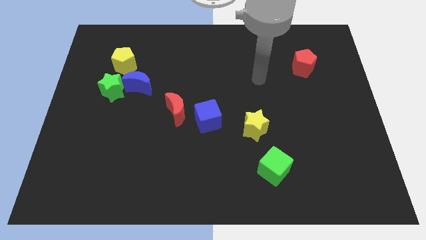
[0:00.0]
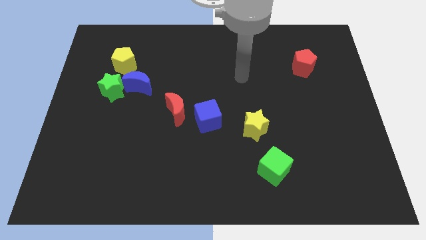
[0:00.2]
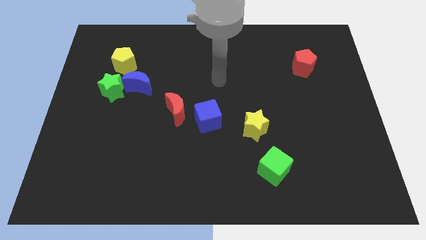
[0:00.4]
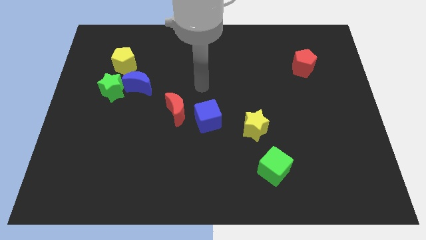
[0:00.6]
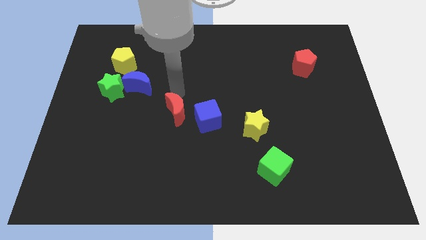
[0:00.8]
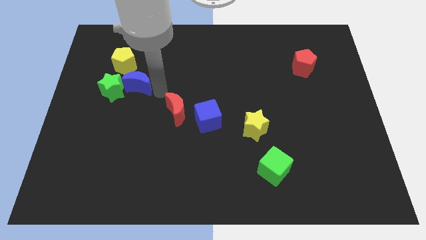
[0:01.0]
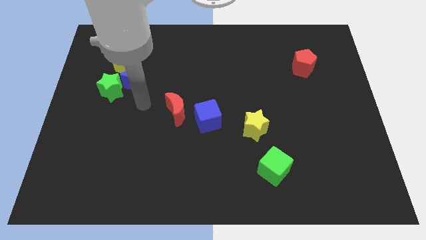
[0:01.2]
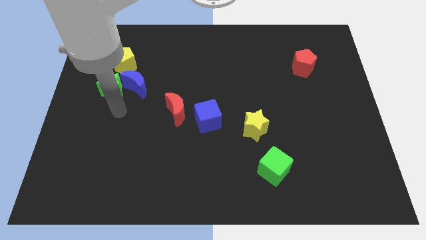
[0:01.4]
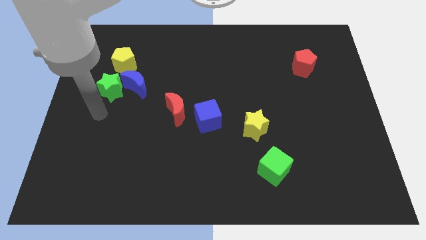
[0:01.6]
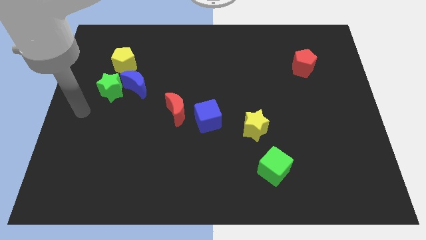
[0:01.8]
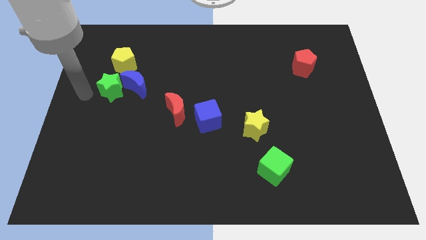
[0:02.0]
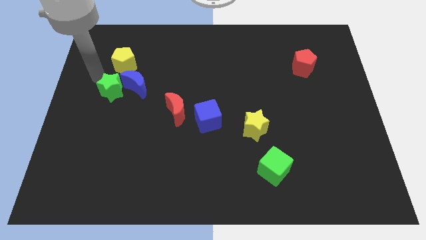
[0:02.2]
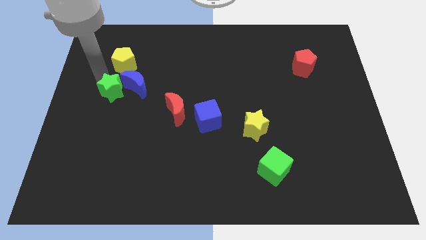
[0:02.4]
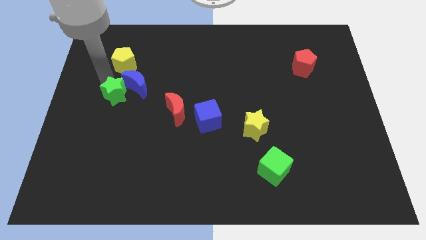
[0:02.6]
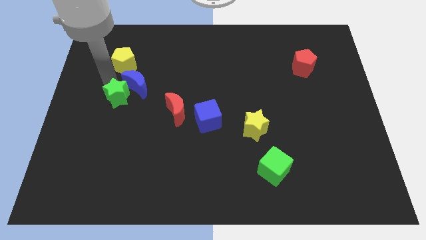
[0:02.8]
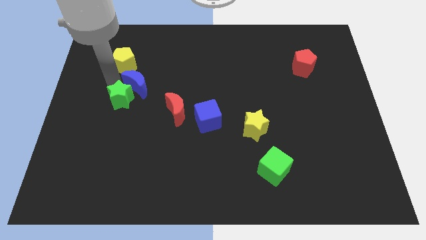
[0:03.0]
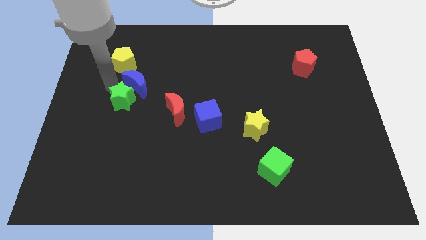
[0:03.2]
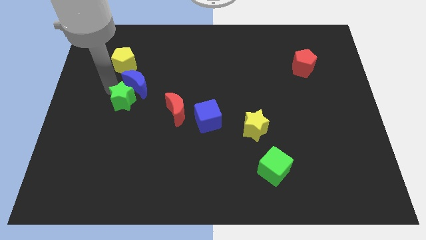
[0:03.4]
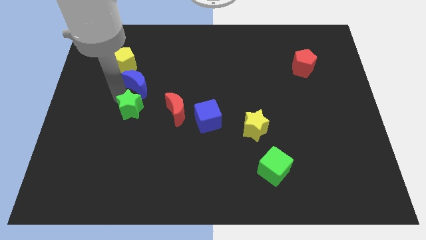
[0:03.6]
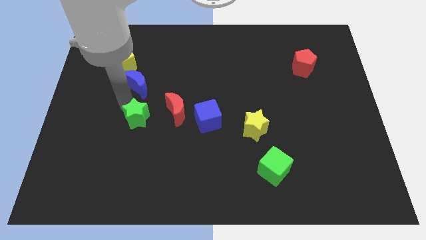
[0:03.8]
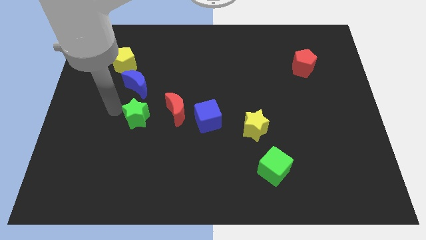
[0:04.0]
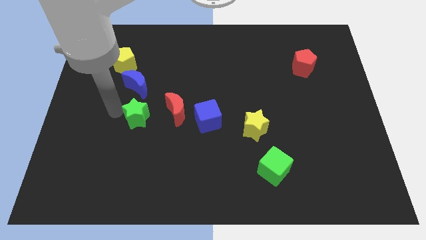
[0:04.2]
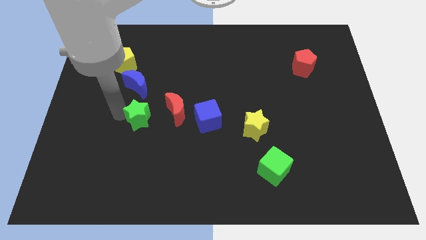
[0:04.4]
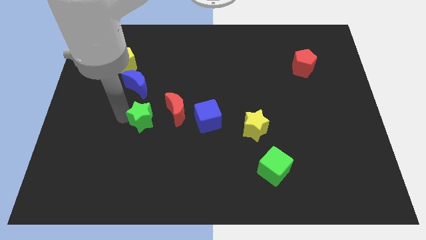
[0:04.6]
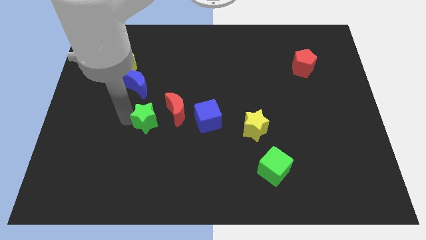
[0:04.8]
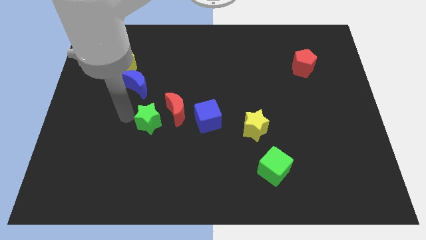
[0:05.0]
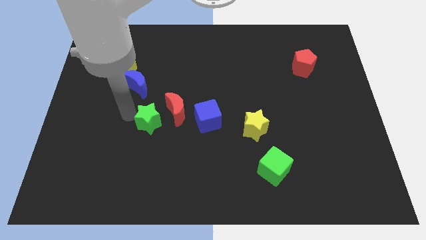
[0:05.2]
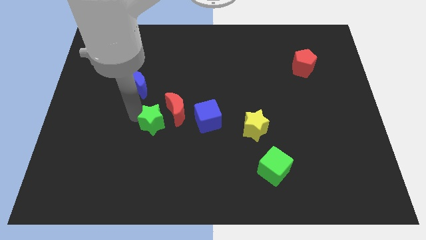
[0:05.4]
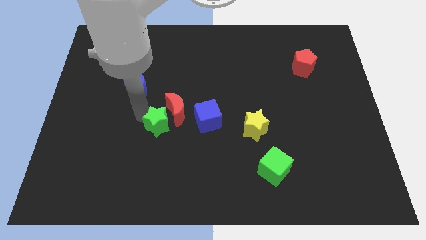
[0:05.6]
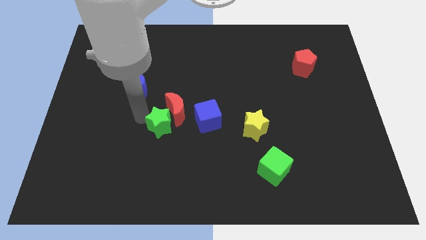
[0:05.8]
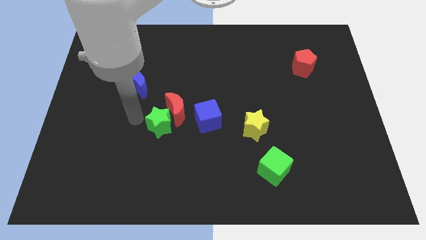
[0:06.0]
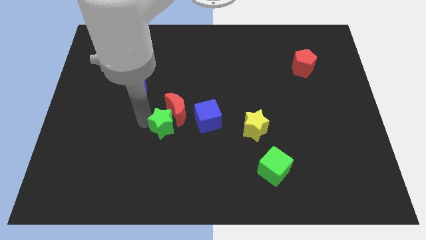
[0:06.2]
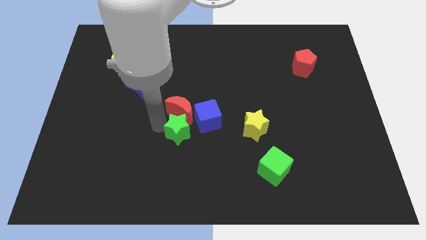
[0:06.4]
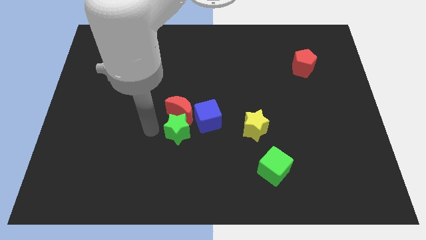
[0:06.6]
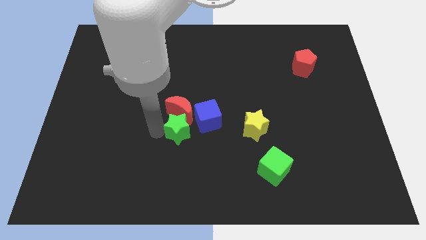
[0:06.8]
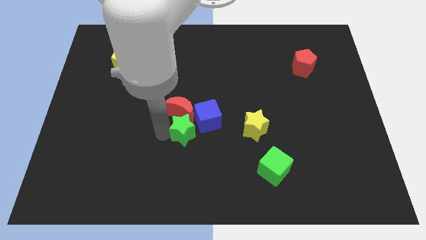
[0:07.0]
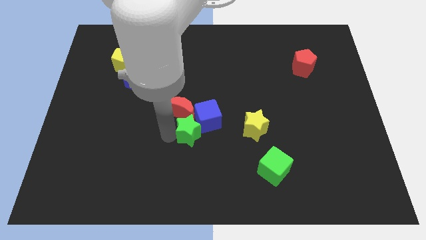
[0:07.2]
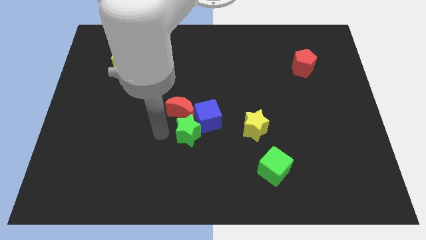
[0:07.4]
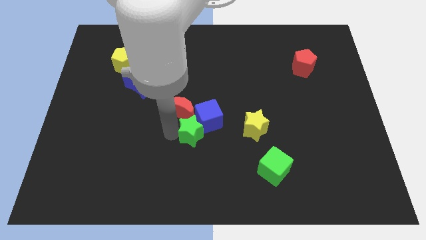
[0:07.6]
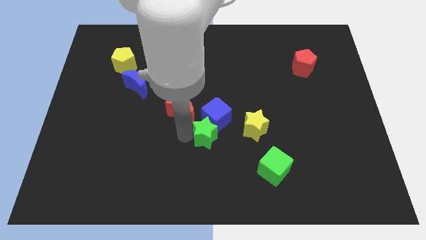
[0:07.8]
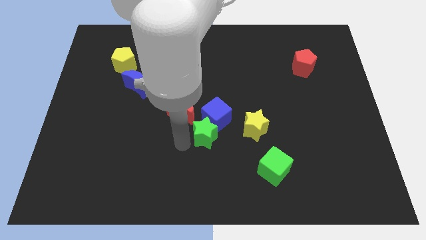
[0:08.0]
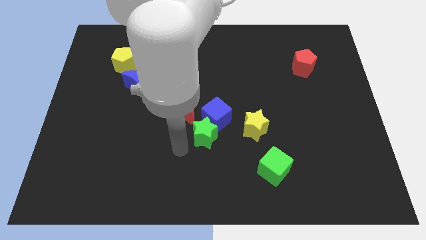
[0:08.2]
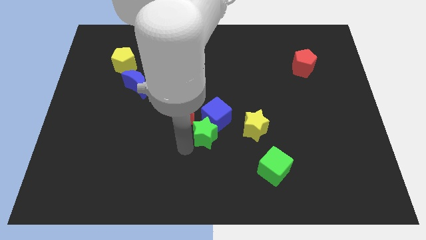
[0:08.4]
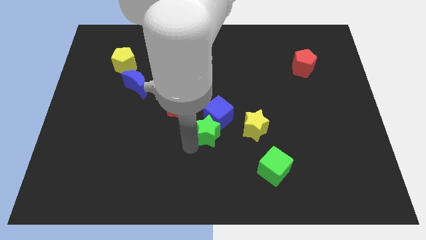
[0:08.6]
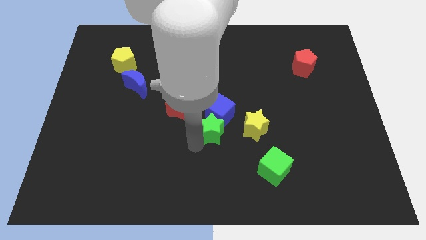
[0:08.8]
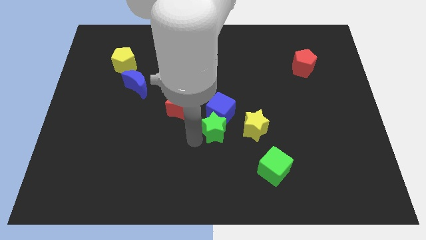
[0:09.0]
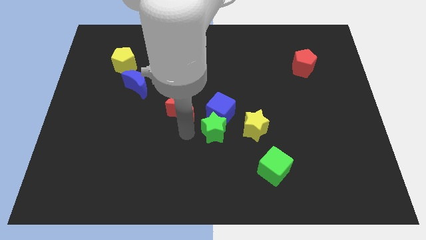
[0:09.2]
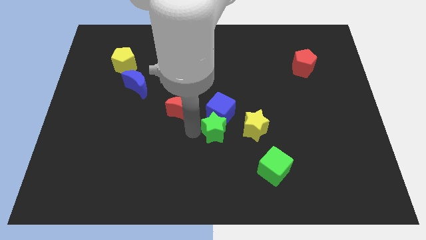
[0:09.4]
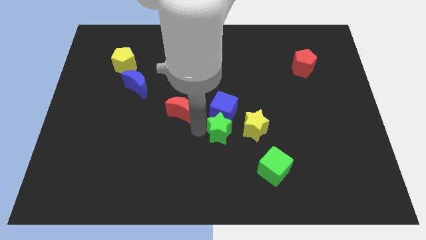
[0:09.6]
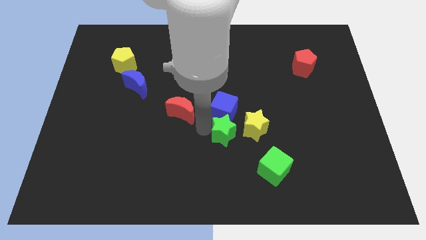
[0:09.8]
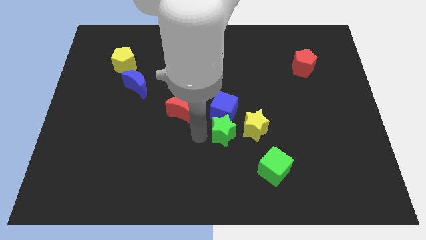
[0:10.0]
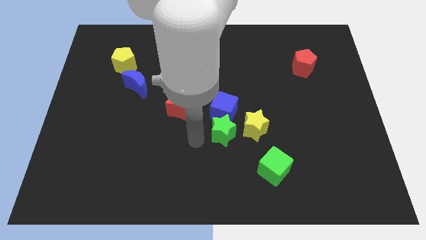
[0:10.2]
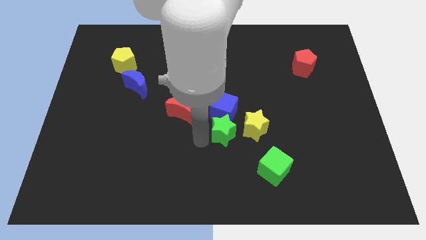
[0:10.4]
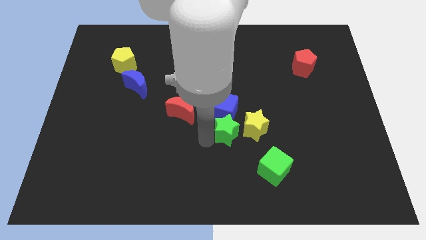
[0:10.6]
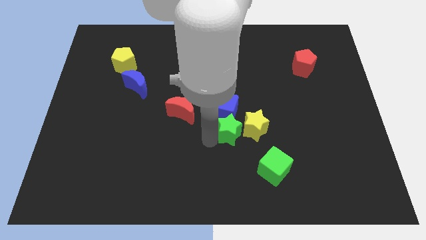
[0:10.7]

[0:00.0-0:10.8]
push the green star towards the yellow star

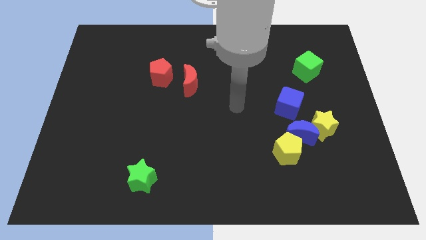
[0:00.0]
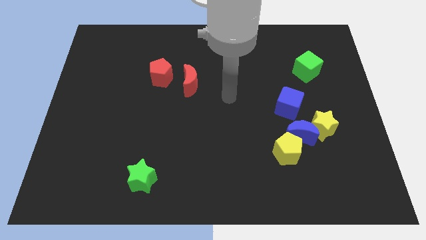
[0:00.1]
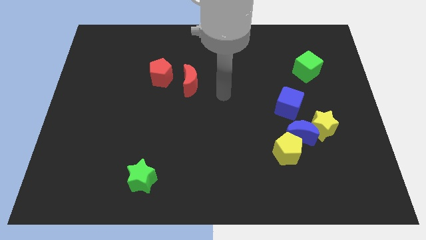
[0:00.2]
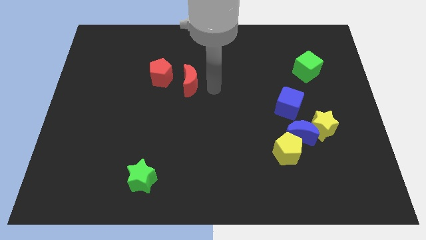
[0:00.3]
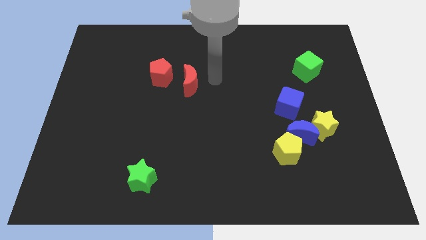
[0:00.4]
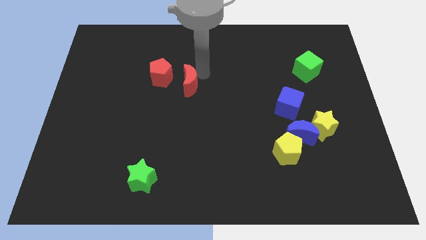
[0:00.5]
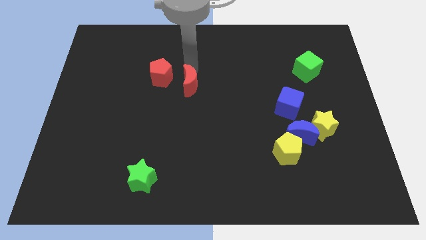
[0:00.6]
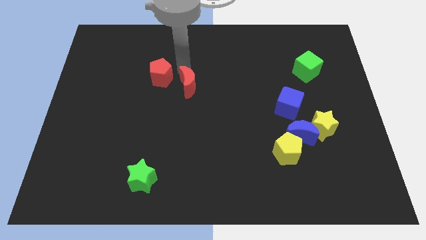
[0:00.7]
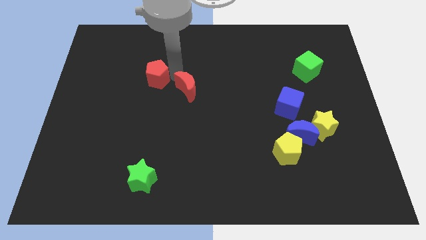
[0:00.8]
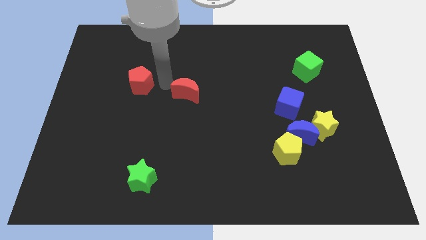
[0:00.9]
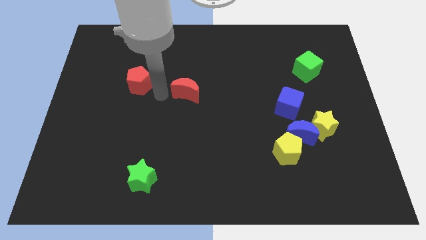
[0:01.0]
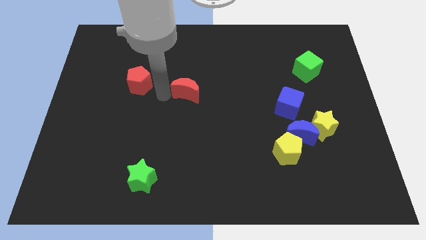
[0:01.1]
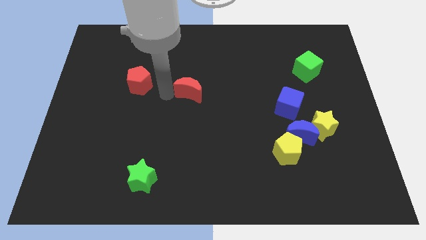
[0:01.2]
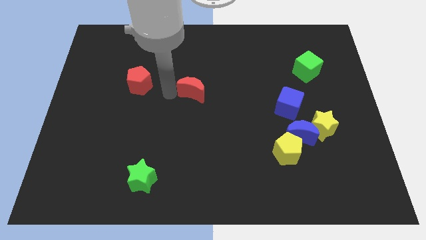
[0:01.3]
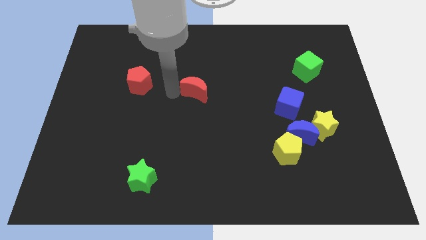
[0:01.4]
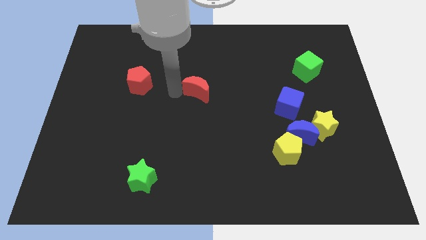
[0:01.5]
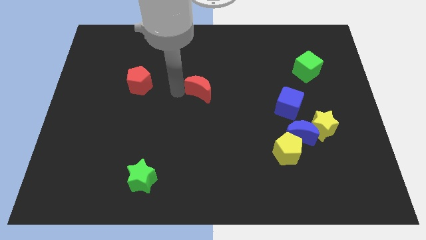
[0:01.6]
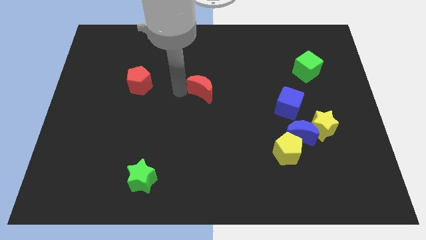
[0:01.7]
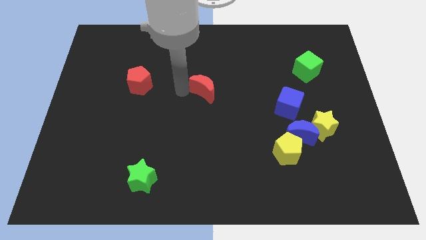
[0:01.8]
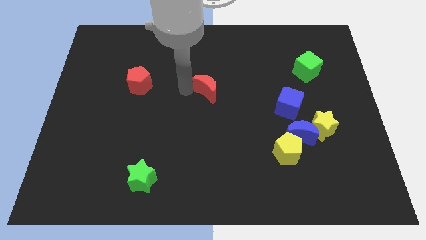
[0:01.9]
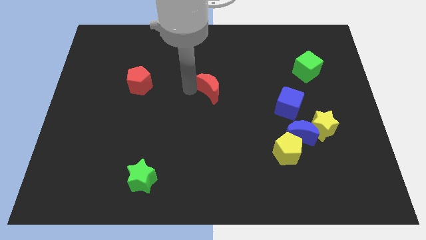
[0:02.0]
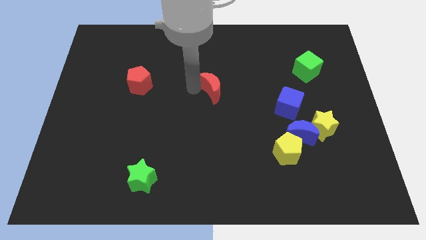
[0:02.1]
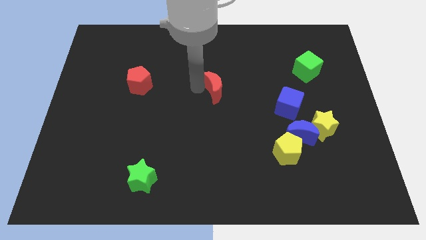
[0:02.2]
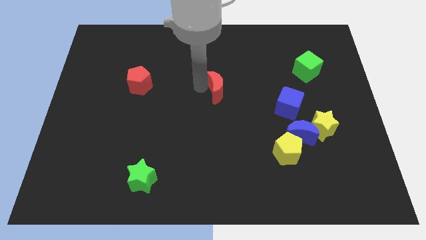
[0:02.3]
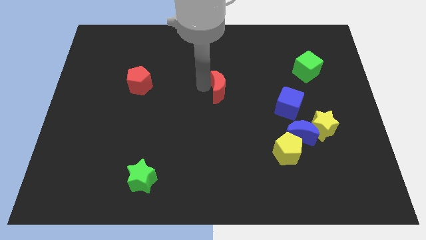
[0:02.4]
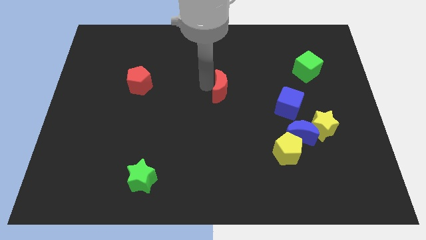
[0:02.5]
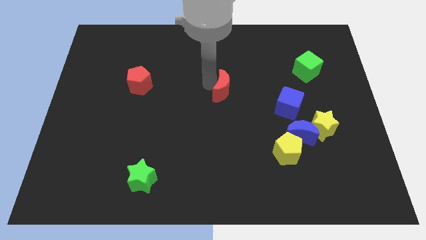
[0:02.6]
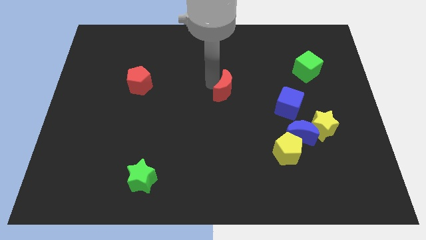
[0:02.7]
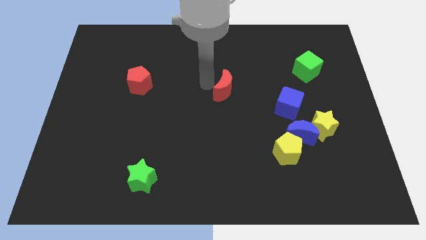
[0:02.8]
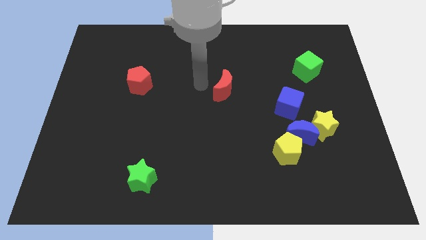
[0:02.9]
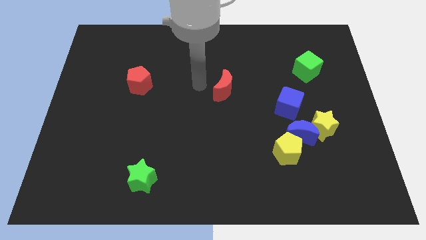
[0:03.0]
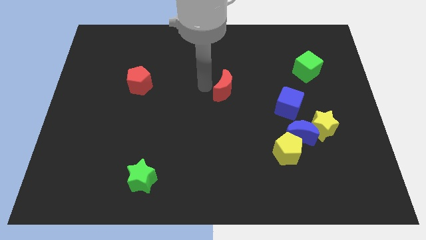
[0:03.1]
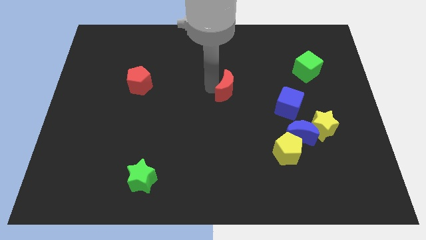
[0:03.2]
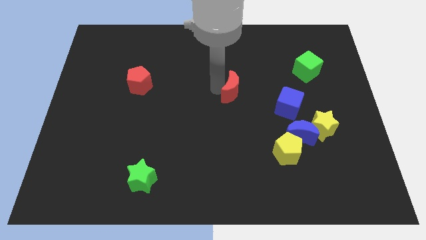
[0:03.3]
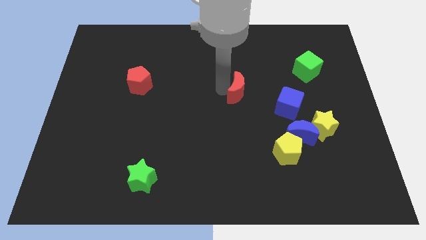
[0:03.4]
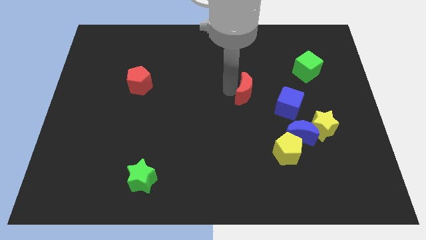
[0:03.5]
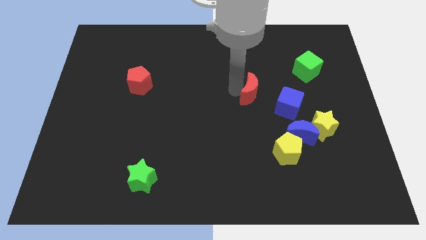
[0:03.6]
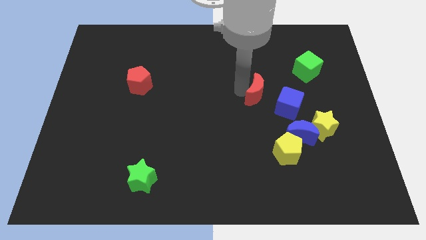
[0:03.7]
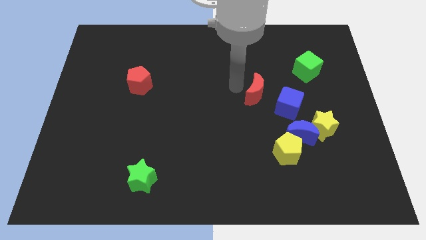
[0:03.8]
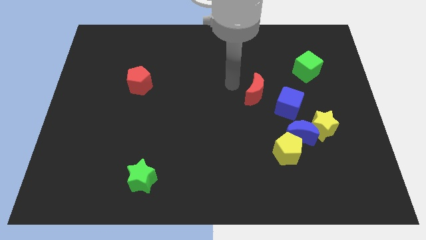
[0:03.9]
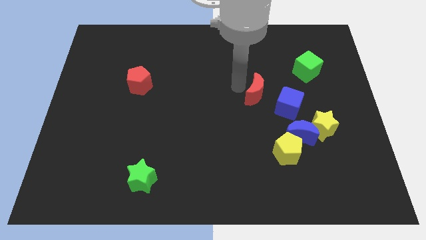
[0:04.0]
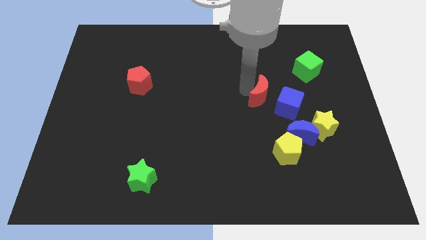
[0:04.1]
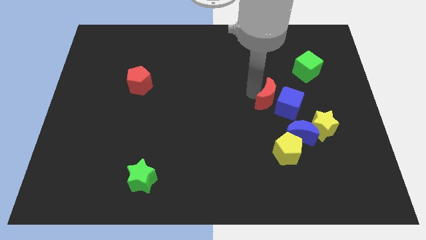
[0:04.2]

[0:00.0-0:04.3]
push the red moon to the blue cube
